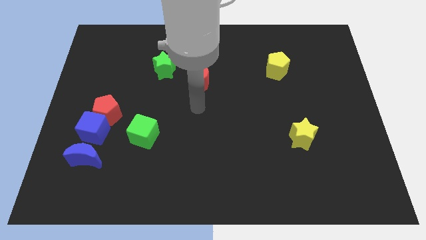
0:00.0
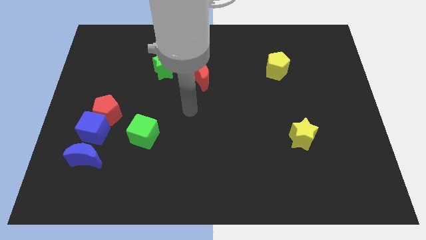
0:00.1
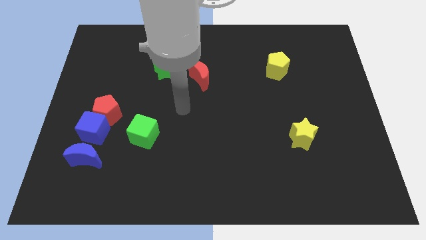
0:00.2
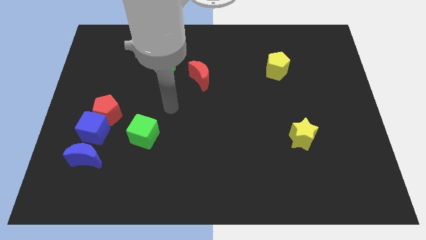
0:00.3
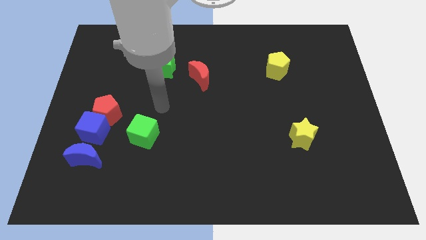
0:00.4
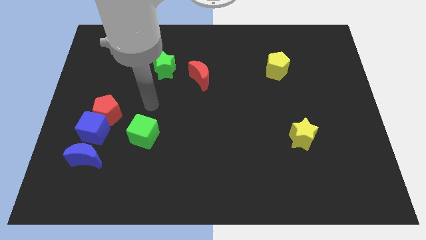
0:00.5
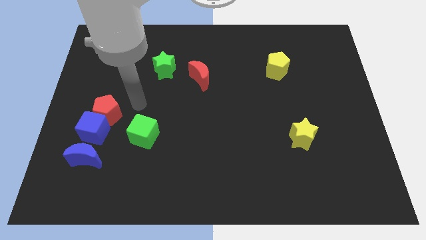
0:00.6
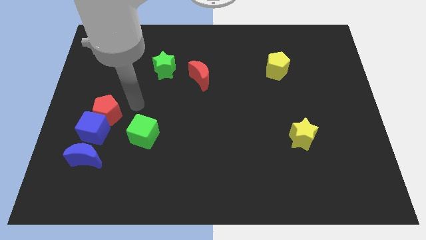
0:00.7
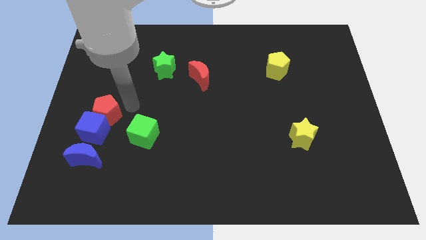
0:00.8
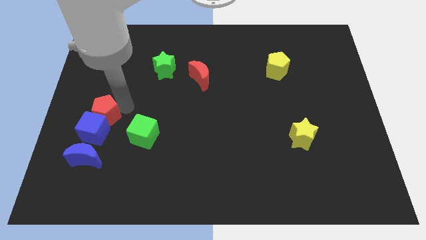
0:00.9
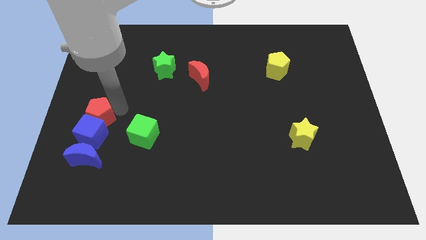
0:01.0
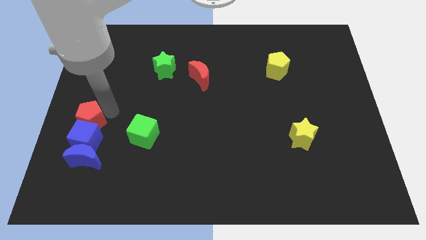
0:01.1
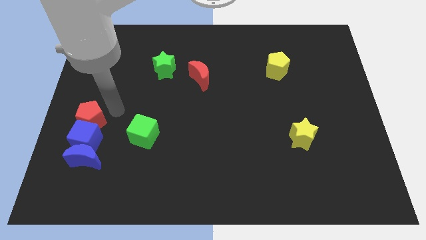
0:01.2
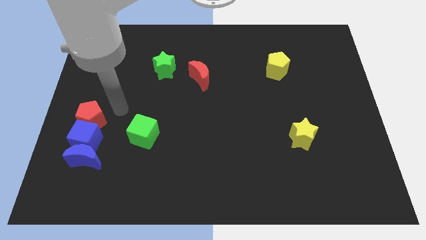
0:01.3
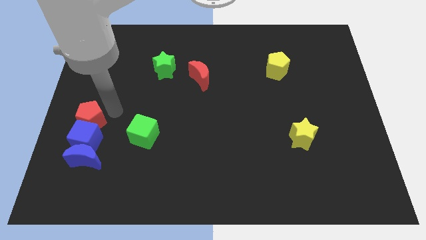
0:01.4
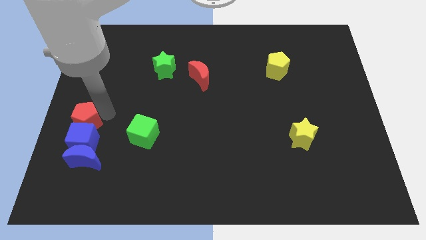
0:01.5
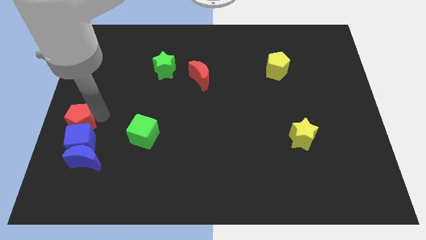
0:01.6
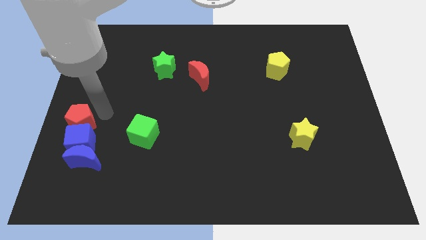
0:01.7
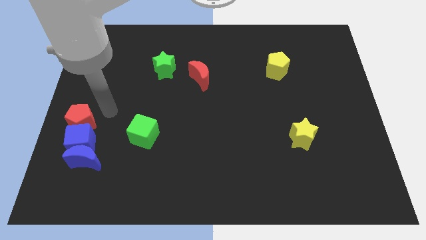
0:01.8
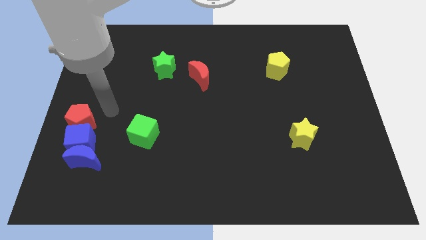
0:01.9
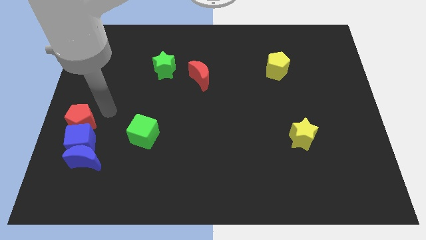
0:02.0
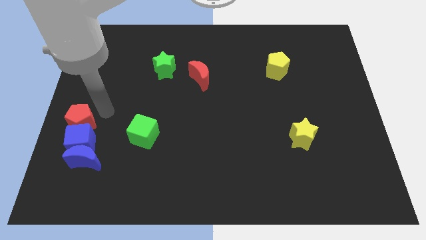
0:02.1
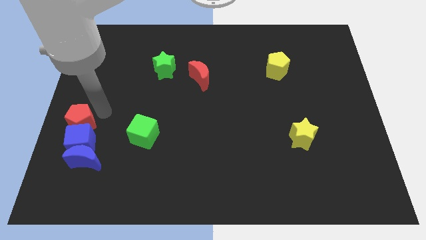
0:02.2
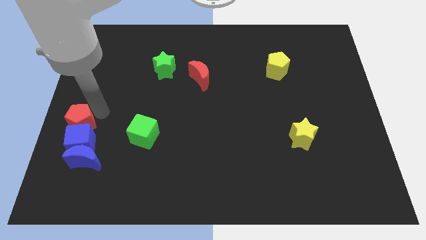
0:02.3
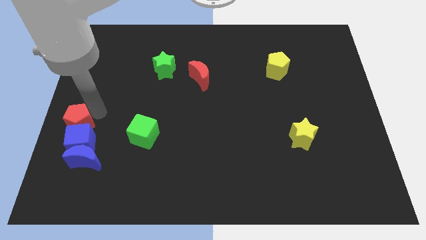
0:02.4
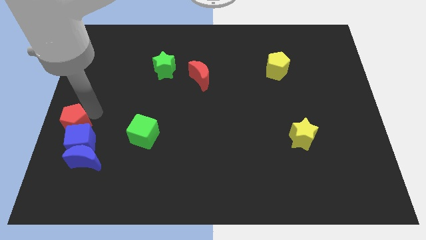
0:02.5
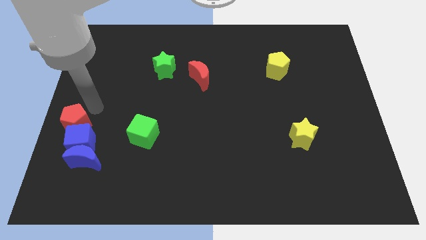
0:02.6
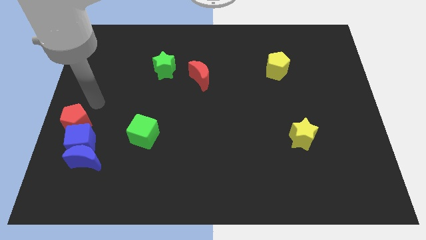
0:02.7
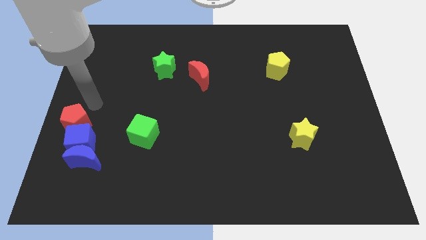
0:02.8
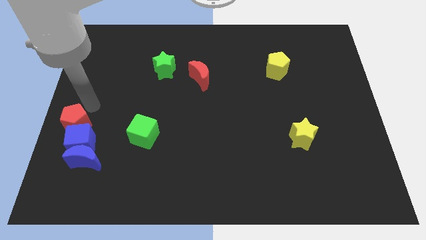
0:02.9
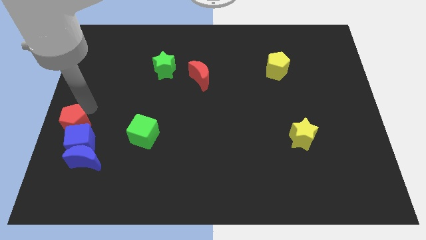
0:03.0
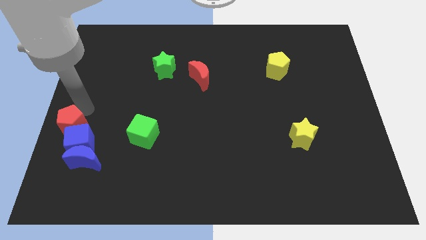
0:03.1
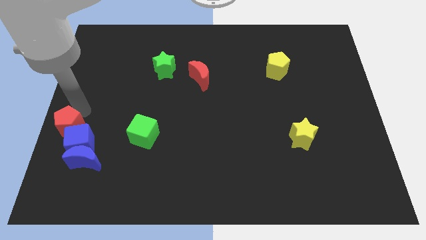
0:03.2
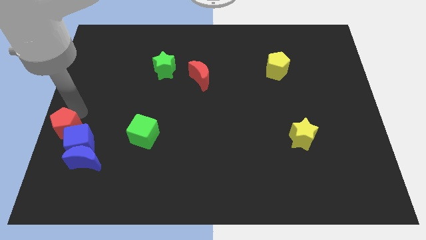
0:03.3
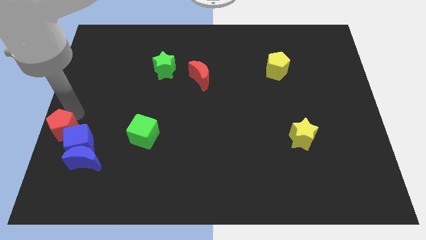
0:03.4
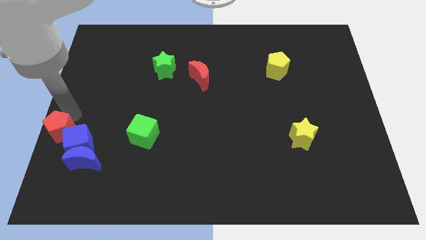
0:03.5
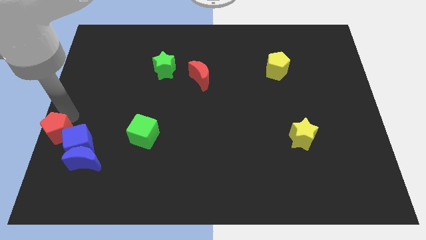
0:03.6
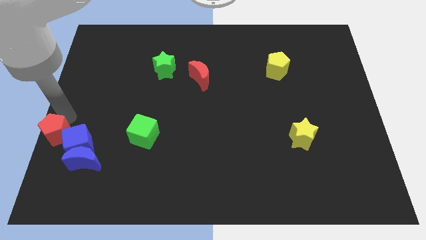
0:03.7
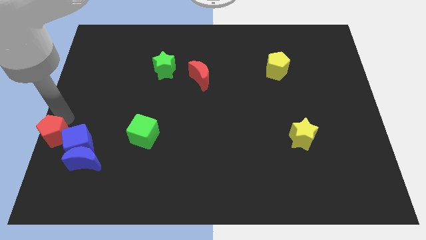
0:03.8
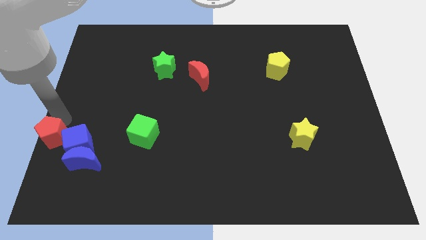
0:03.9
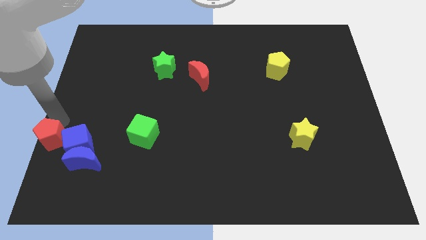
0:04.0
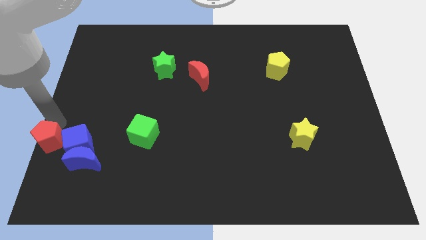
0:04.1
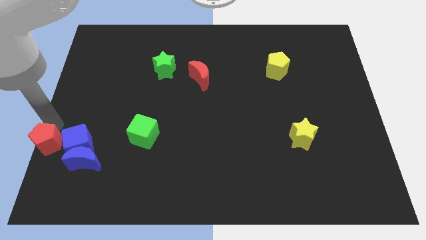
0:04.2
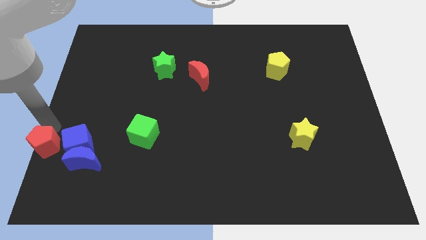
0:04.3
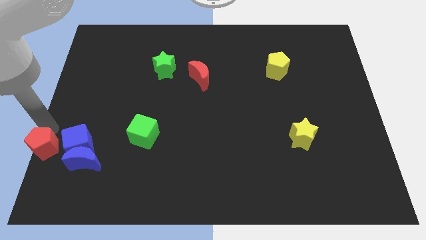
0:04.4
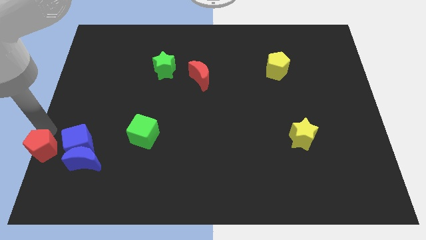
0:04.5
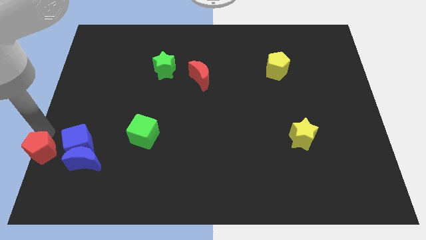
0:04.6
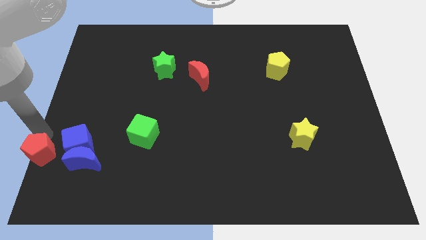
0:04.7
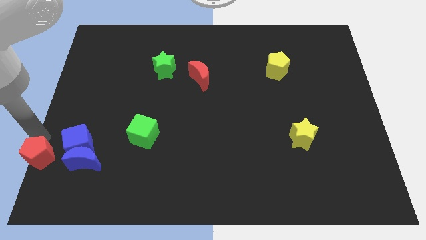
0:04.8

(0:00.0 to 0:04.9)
move the red pentagon to the bottom left corner

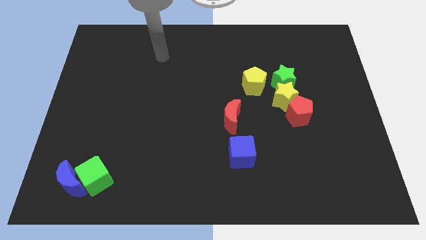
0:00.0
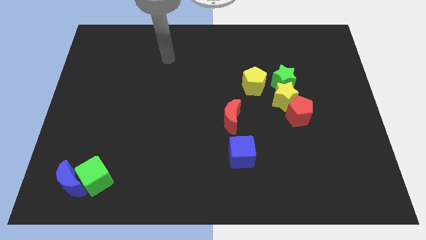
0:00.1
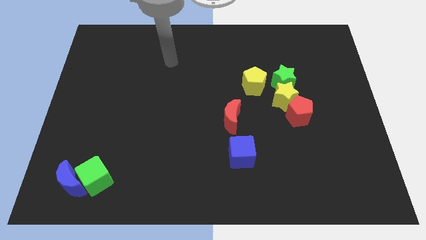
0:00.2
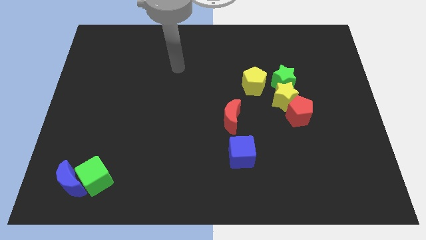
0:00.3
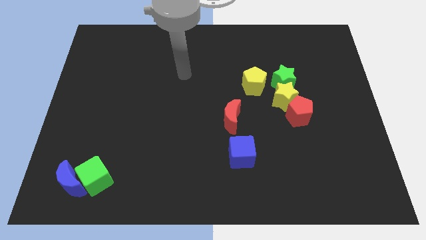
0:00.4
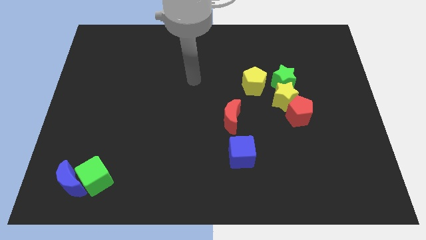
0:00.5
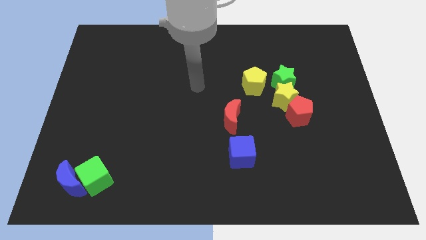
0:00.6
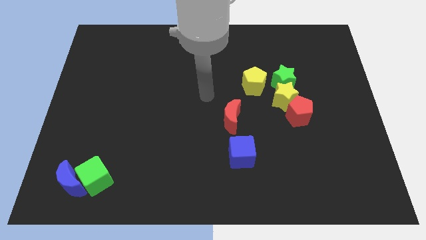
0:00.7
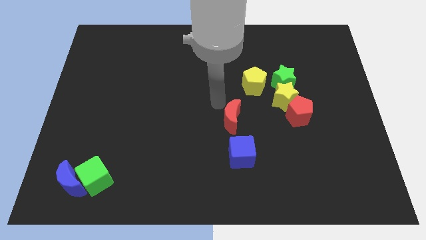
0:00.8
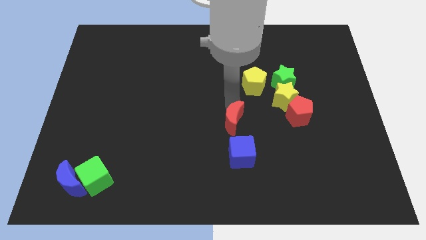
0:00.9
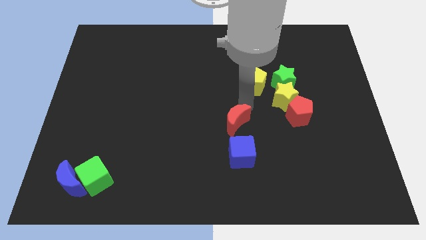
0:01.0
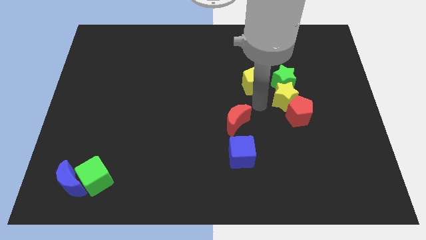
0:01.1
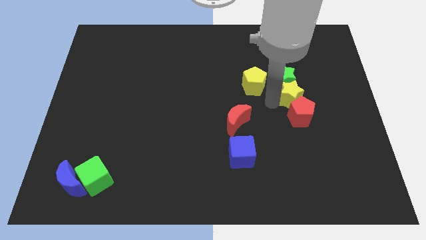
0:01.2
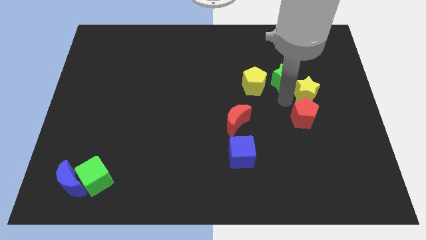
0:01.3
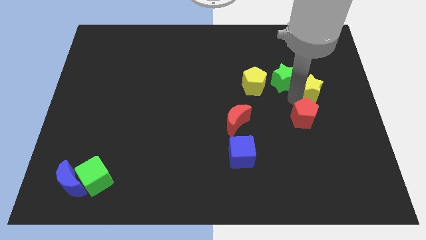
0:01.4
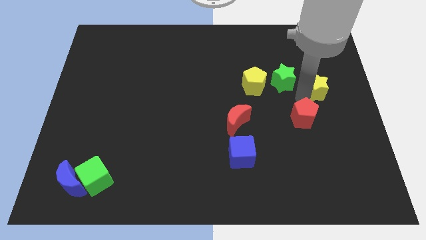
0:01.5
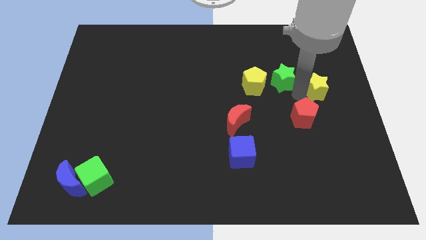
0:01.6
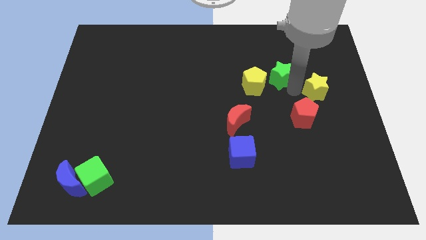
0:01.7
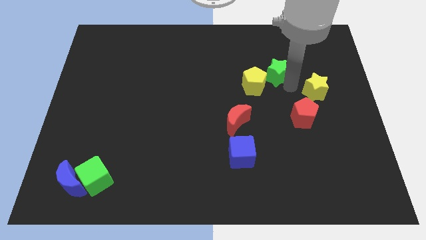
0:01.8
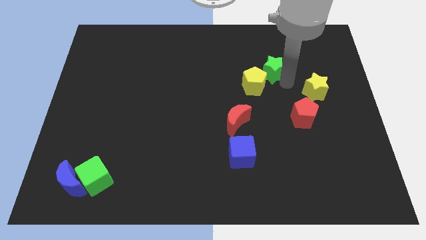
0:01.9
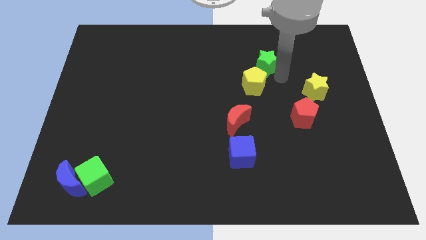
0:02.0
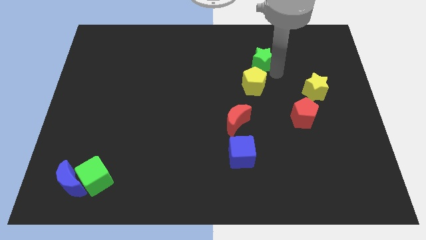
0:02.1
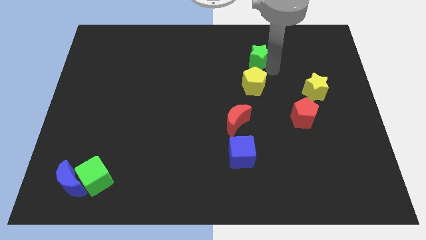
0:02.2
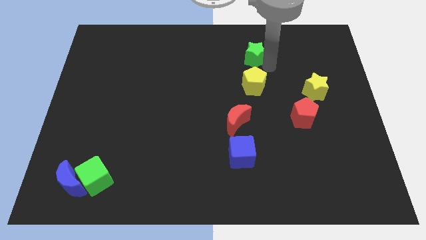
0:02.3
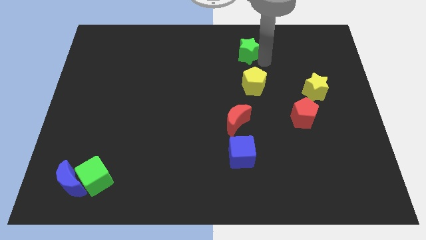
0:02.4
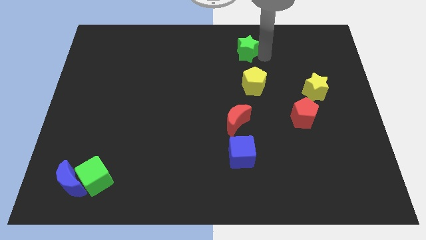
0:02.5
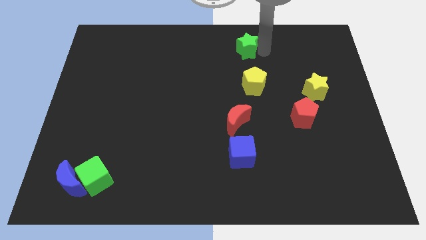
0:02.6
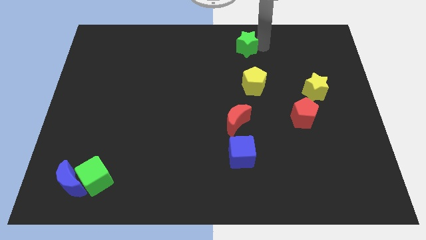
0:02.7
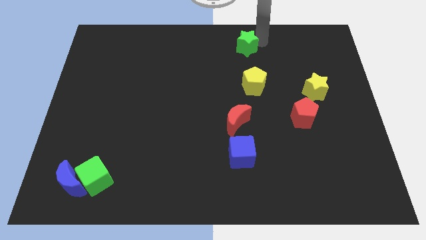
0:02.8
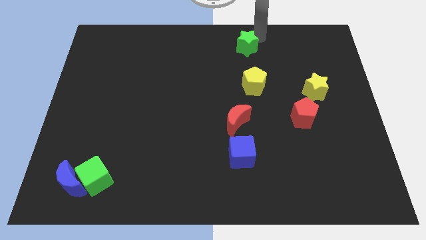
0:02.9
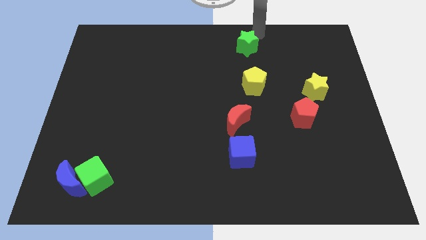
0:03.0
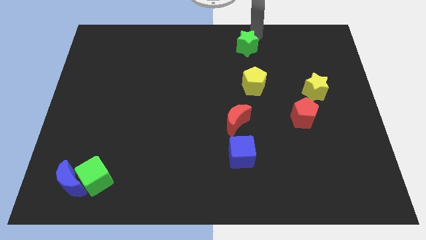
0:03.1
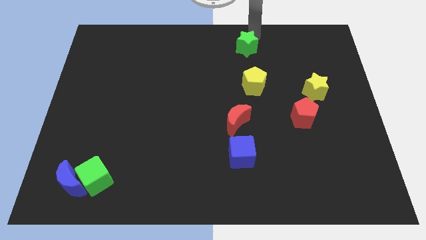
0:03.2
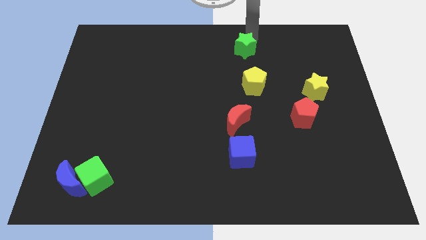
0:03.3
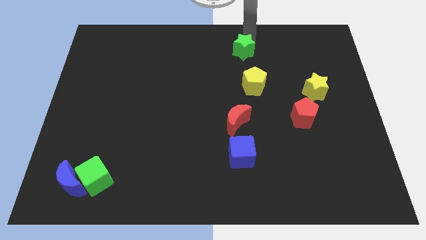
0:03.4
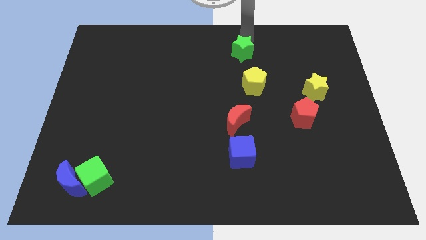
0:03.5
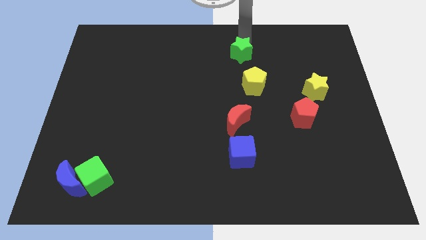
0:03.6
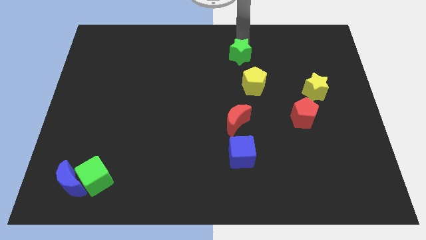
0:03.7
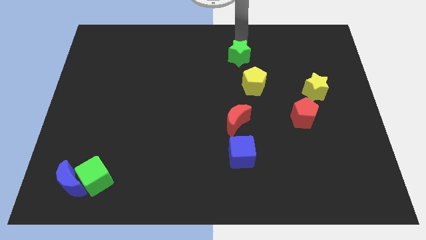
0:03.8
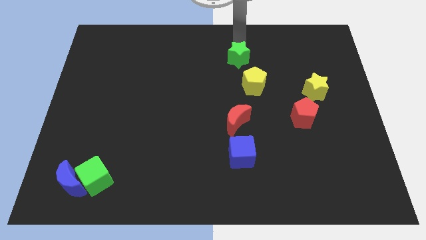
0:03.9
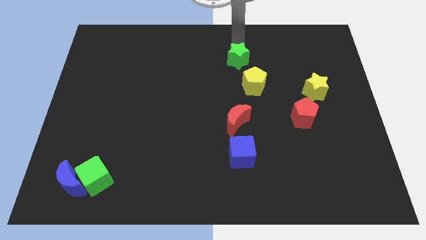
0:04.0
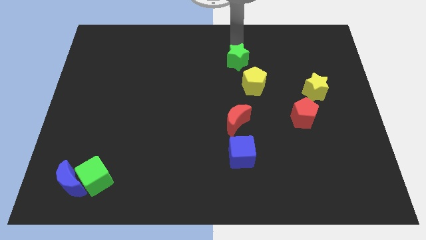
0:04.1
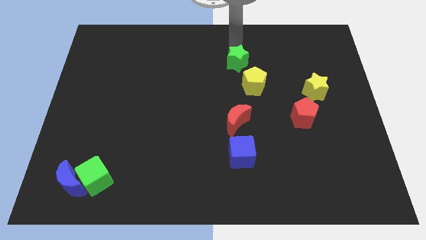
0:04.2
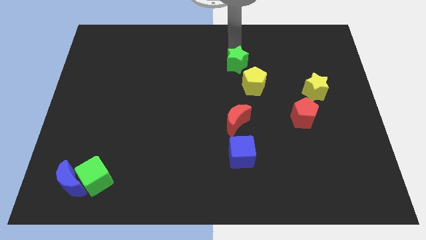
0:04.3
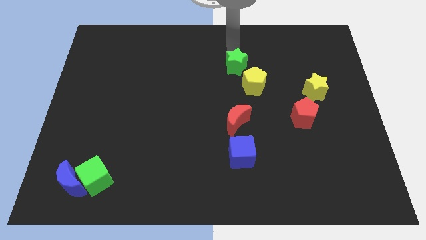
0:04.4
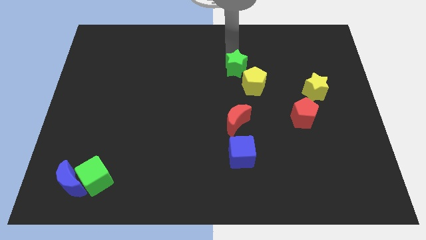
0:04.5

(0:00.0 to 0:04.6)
slide the green star to the middle of the board
